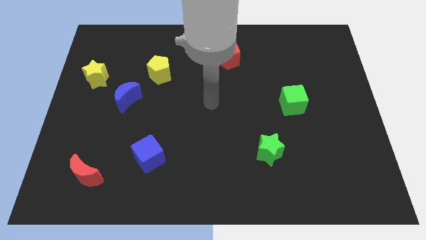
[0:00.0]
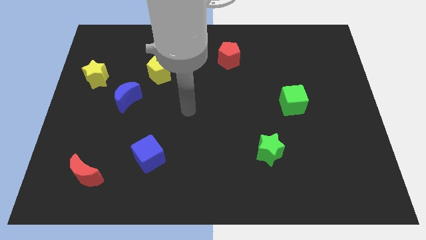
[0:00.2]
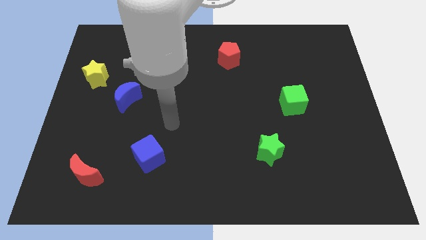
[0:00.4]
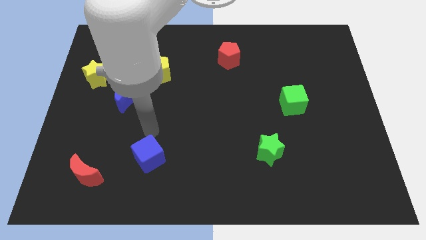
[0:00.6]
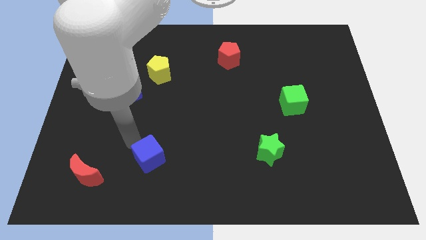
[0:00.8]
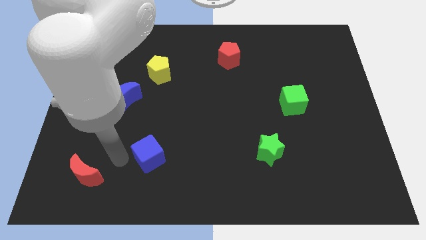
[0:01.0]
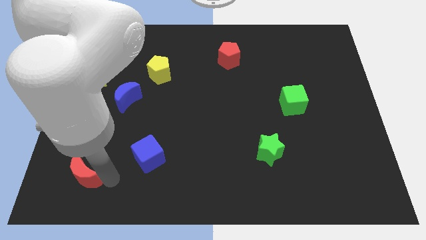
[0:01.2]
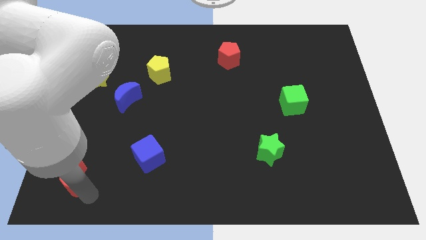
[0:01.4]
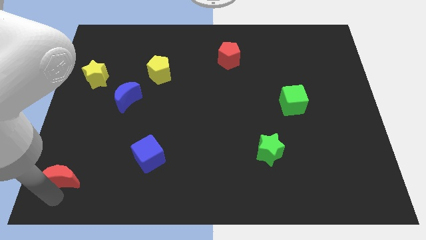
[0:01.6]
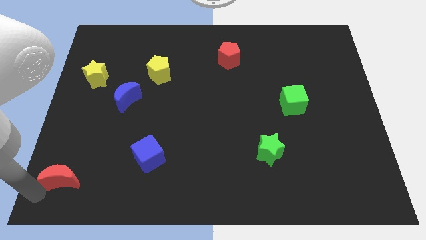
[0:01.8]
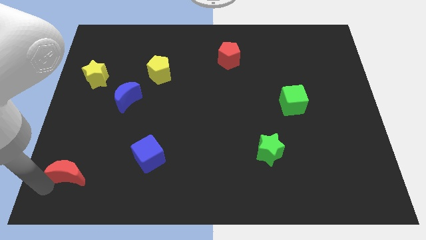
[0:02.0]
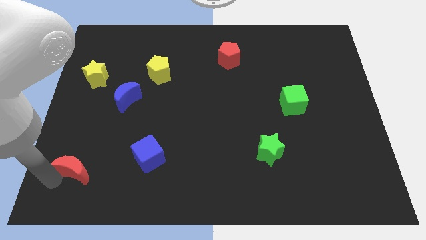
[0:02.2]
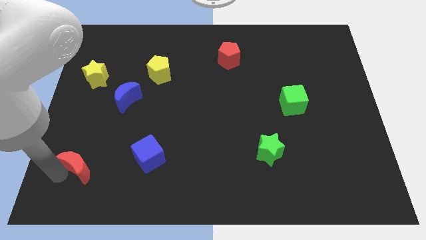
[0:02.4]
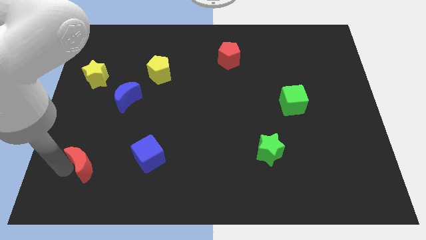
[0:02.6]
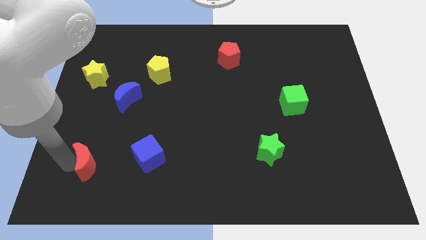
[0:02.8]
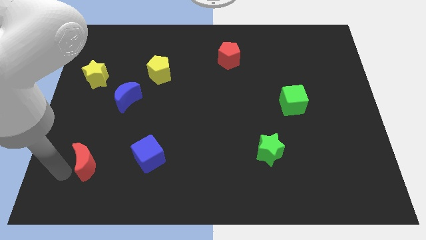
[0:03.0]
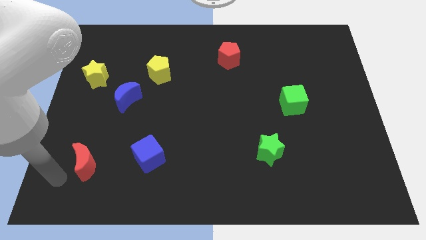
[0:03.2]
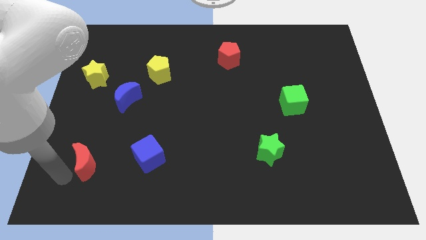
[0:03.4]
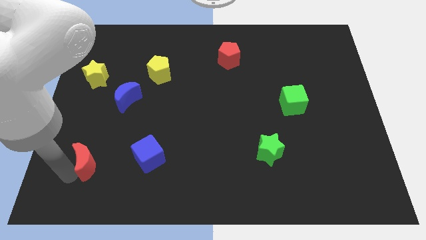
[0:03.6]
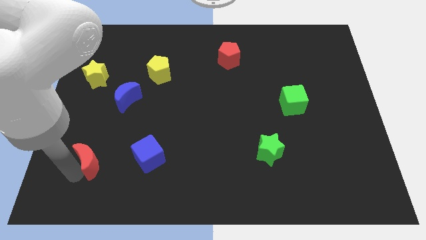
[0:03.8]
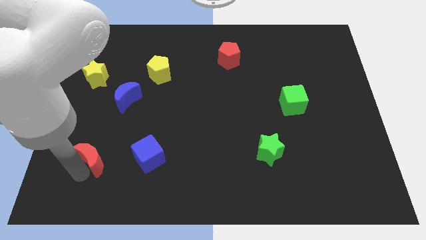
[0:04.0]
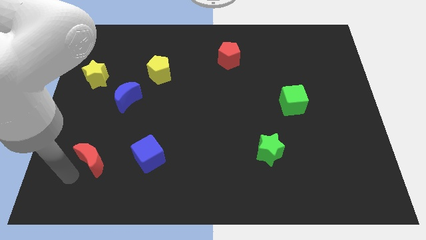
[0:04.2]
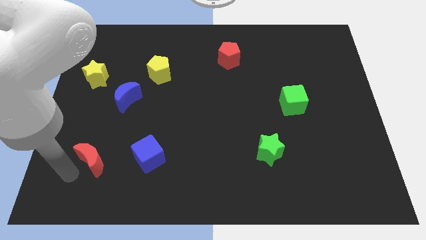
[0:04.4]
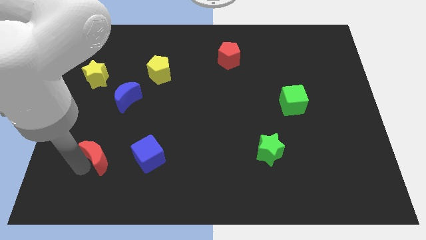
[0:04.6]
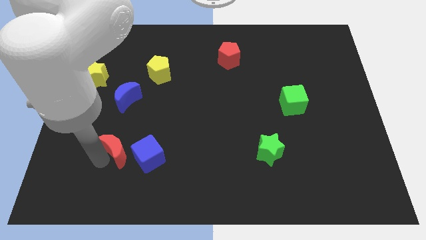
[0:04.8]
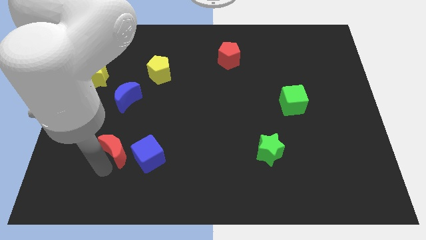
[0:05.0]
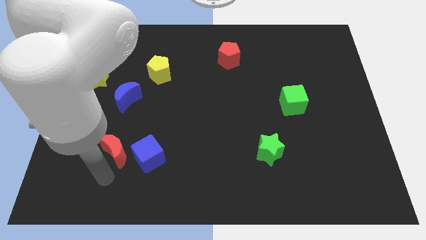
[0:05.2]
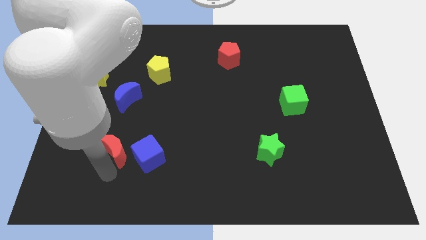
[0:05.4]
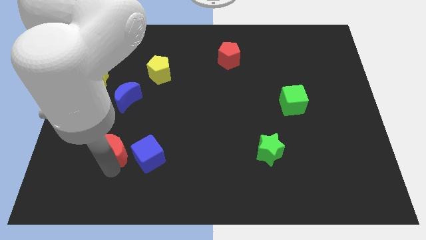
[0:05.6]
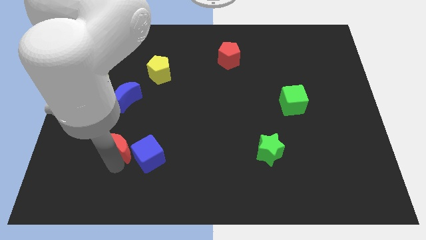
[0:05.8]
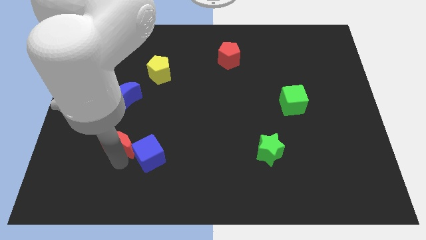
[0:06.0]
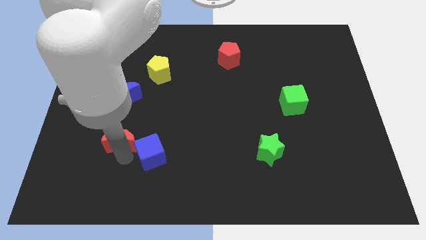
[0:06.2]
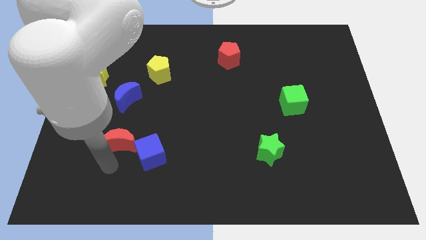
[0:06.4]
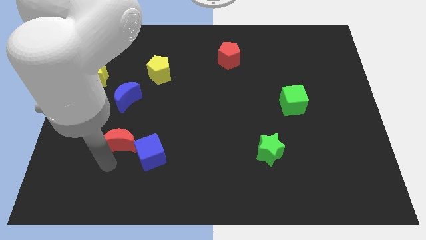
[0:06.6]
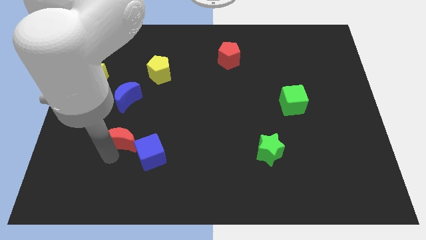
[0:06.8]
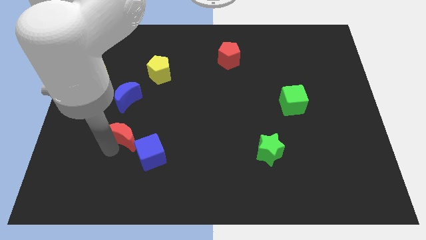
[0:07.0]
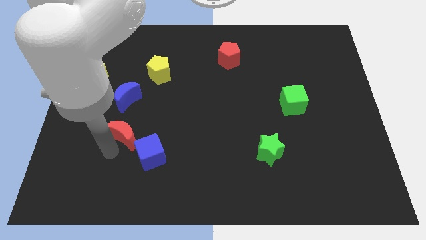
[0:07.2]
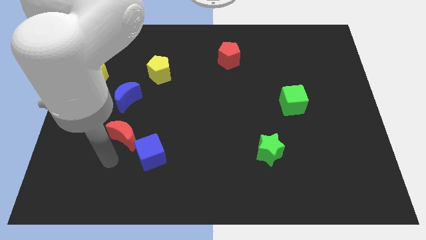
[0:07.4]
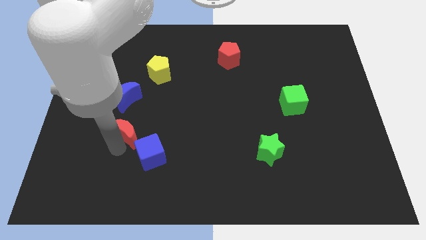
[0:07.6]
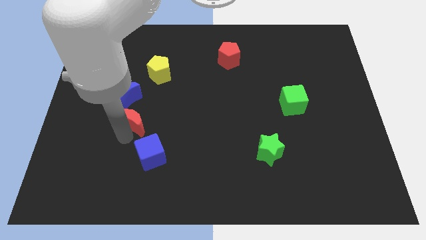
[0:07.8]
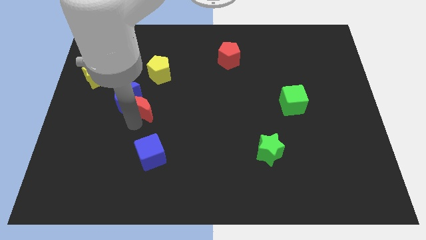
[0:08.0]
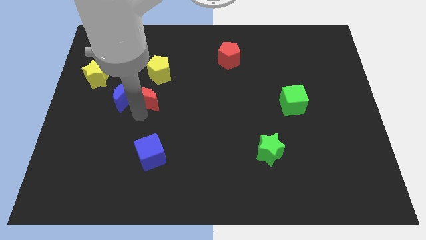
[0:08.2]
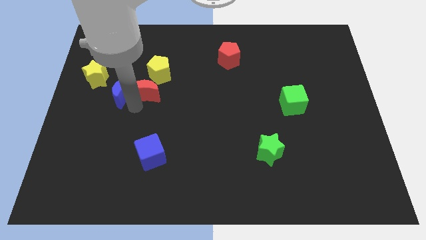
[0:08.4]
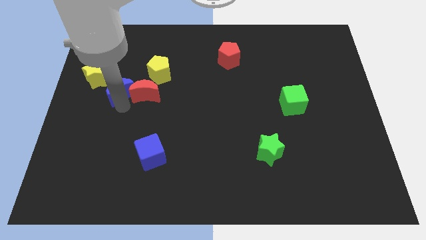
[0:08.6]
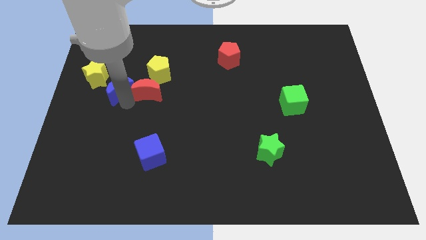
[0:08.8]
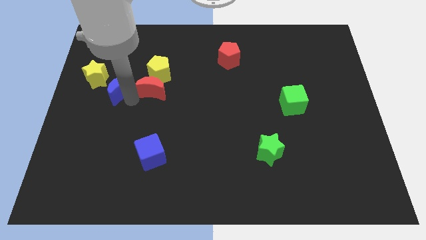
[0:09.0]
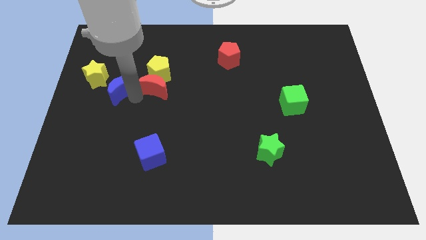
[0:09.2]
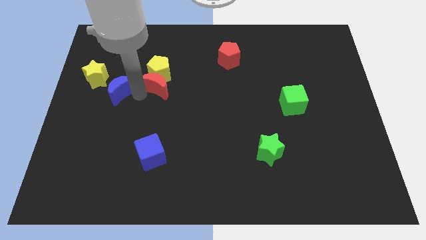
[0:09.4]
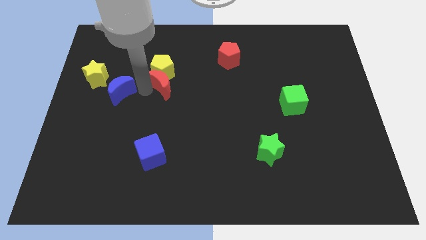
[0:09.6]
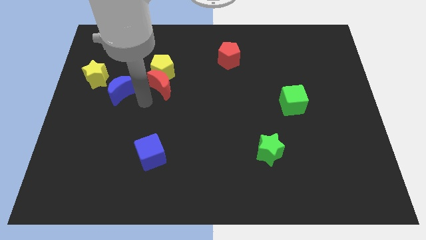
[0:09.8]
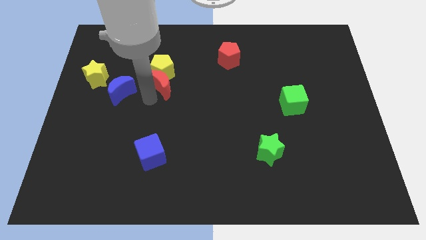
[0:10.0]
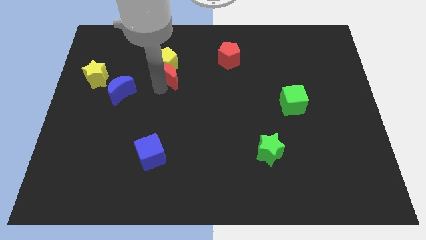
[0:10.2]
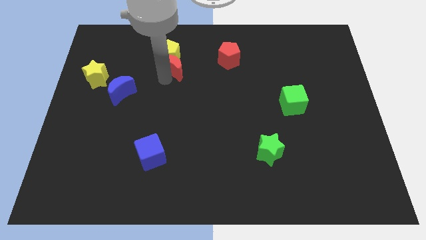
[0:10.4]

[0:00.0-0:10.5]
put the red moon left of the red pentagon

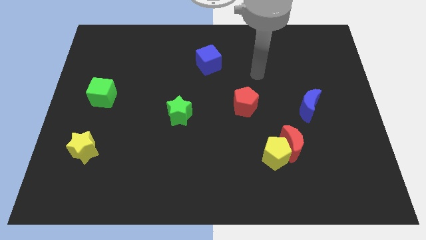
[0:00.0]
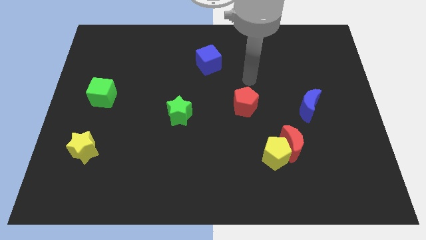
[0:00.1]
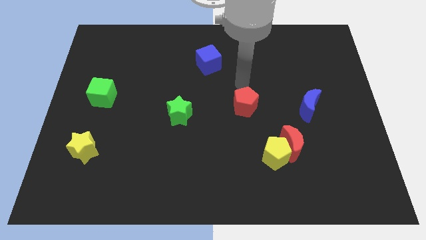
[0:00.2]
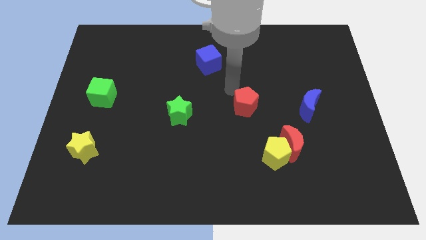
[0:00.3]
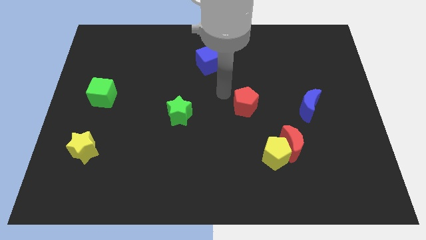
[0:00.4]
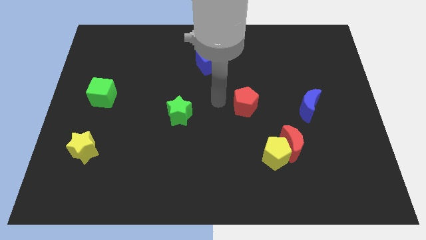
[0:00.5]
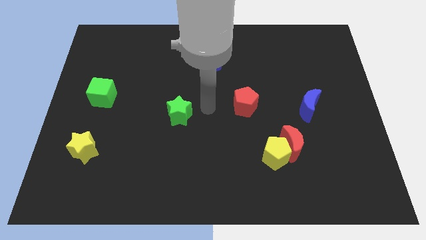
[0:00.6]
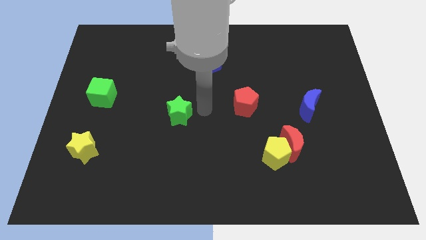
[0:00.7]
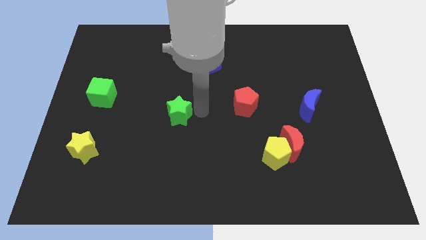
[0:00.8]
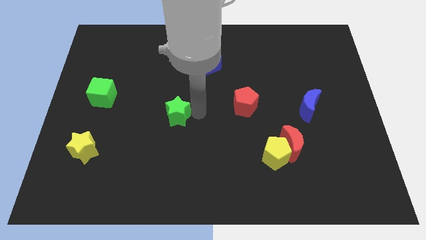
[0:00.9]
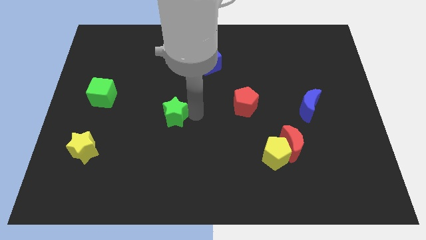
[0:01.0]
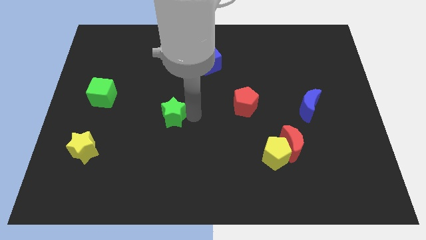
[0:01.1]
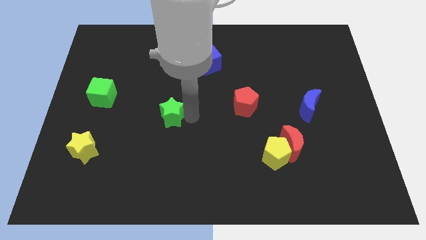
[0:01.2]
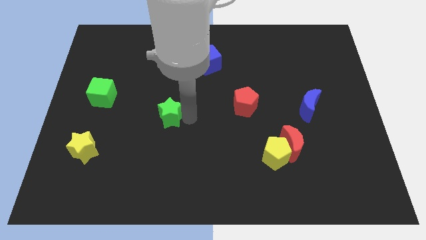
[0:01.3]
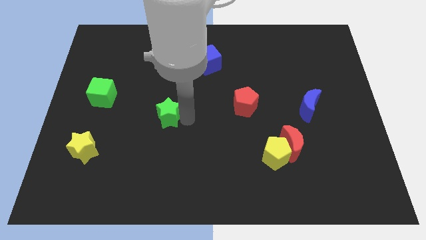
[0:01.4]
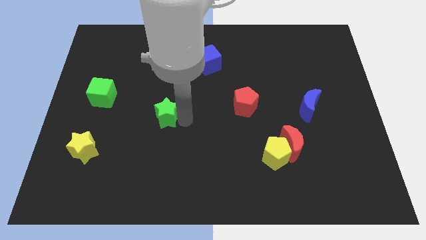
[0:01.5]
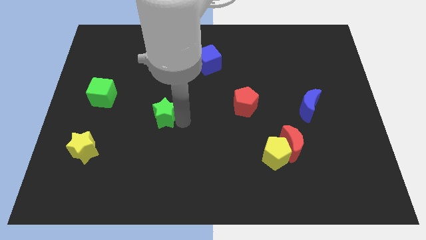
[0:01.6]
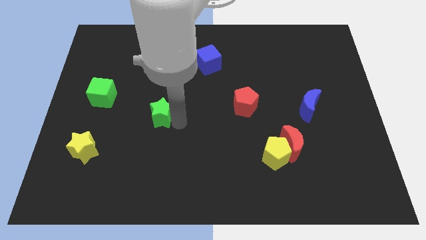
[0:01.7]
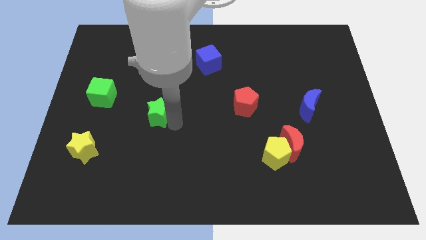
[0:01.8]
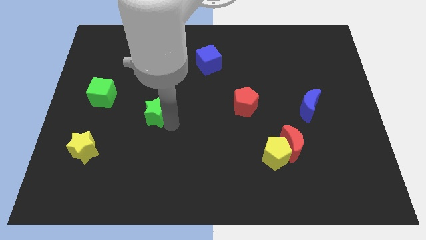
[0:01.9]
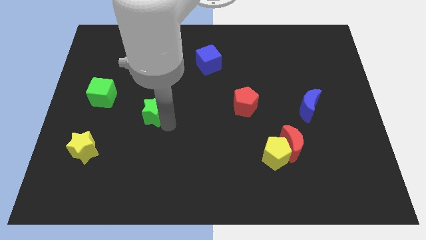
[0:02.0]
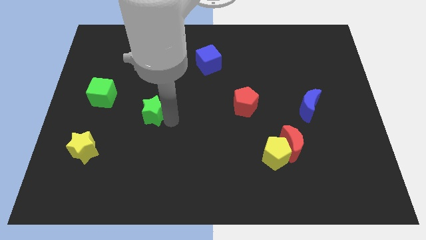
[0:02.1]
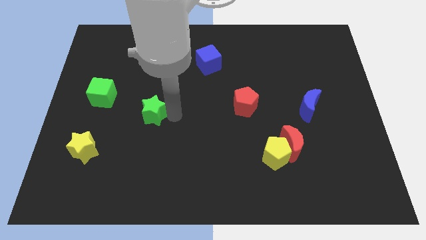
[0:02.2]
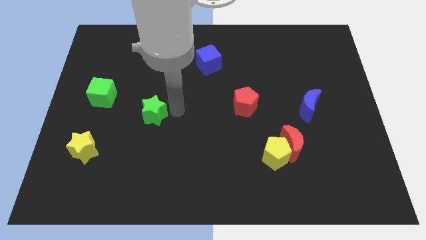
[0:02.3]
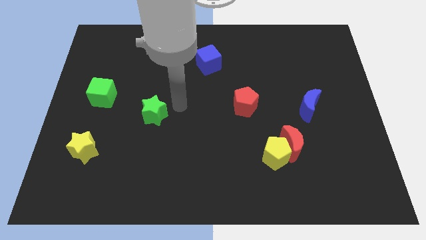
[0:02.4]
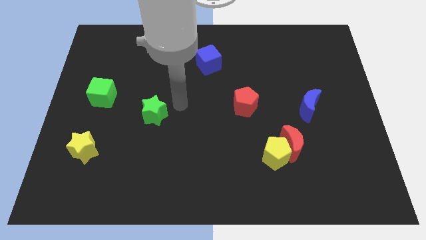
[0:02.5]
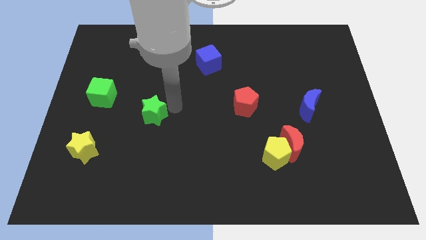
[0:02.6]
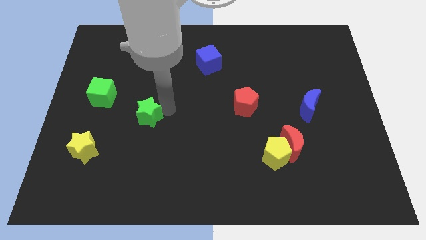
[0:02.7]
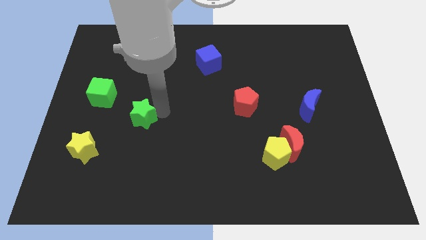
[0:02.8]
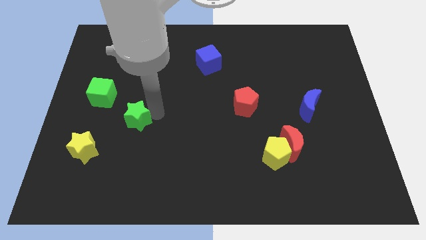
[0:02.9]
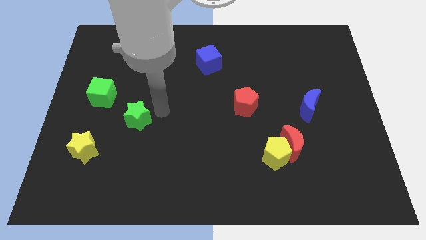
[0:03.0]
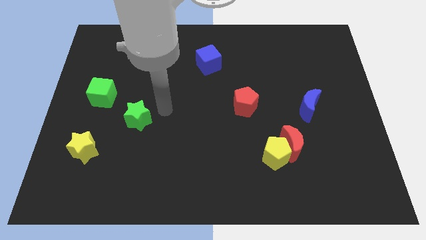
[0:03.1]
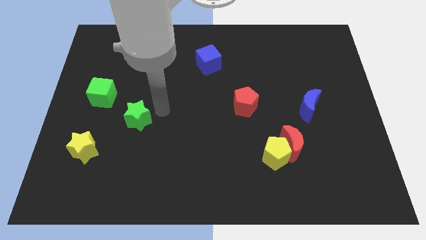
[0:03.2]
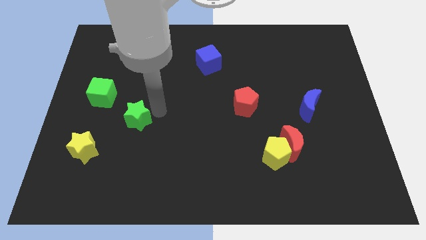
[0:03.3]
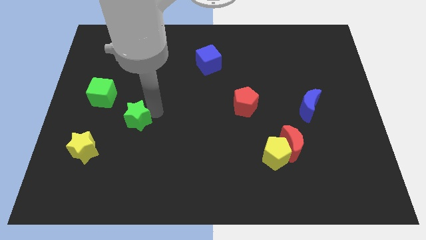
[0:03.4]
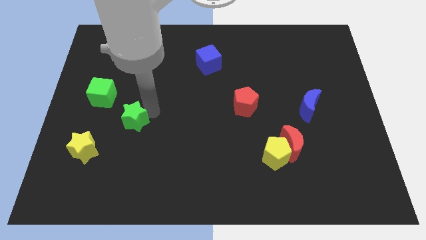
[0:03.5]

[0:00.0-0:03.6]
put the green star to the top right side of the yellow star
